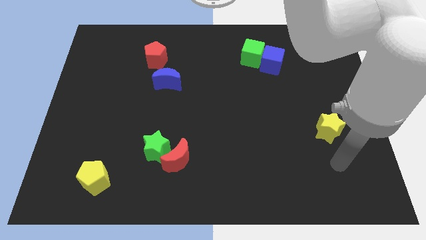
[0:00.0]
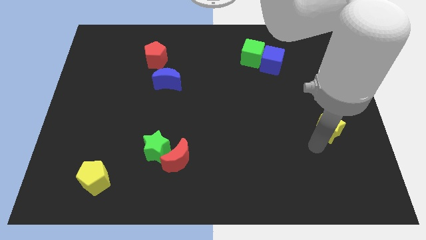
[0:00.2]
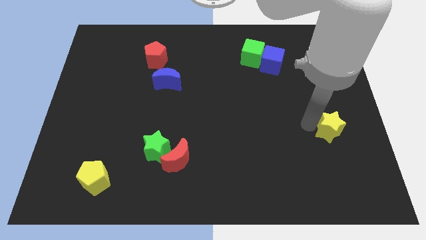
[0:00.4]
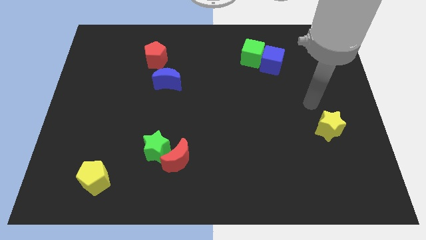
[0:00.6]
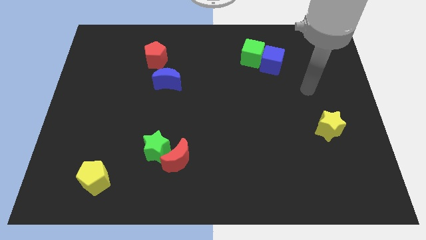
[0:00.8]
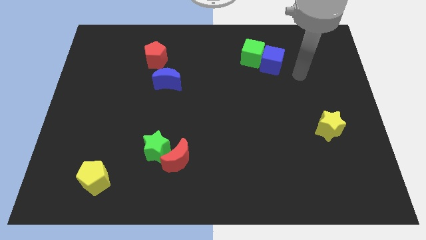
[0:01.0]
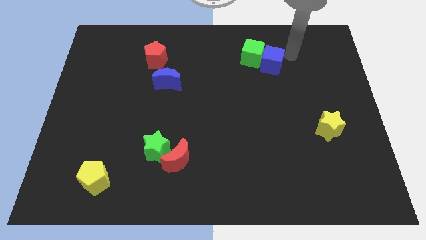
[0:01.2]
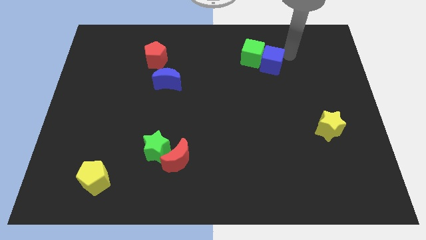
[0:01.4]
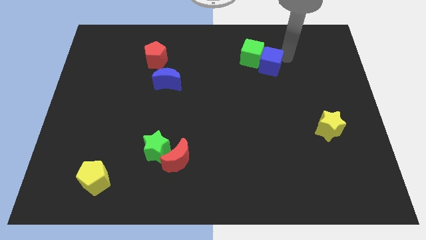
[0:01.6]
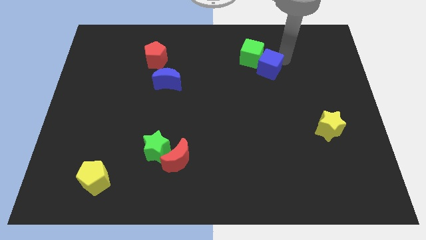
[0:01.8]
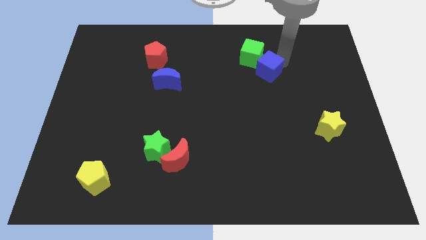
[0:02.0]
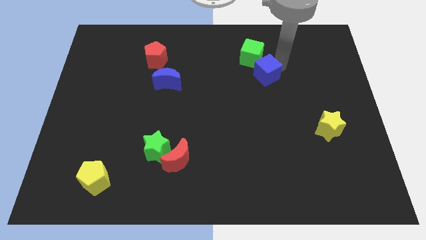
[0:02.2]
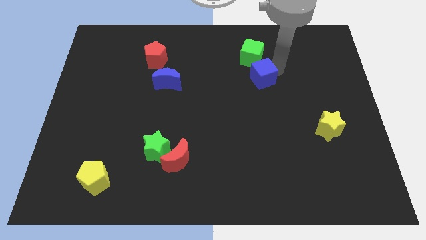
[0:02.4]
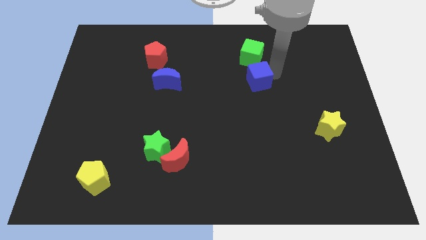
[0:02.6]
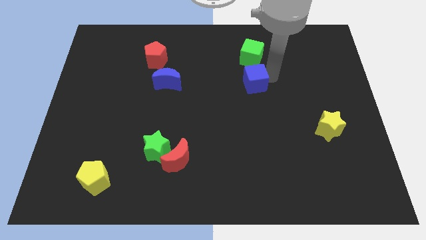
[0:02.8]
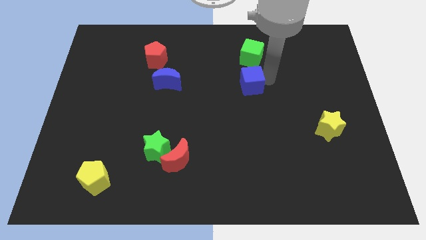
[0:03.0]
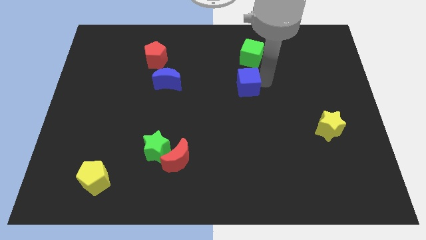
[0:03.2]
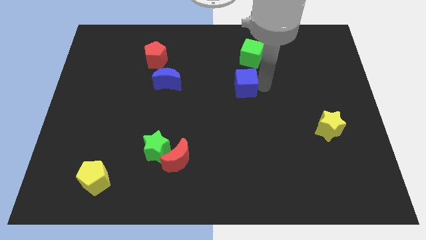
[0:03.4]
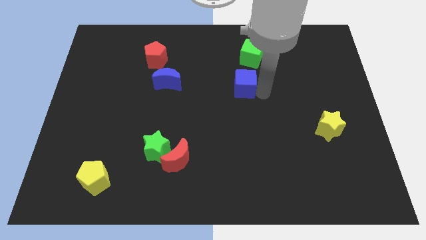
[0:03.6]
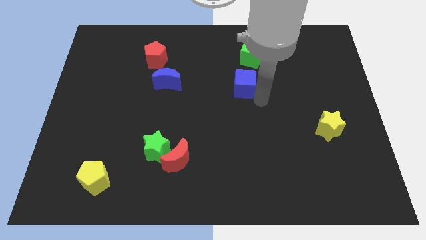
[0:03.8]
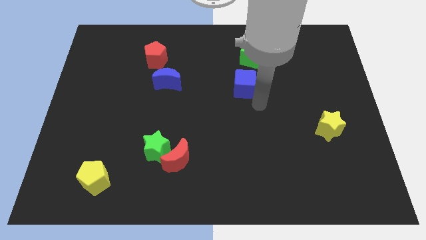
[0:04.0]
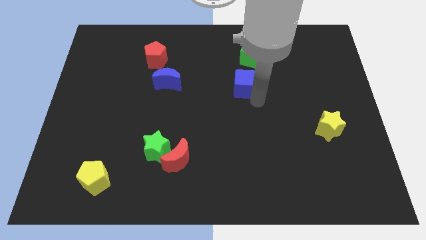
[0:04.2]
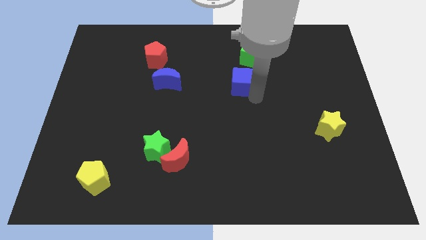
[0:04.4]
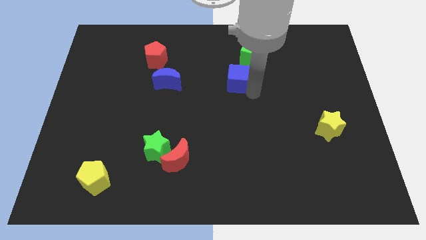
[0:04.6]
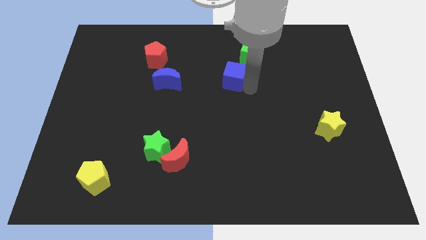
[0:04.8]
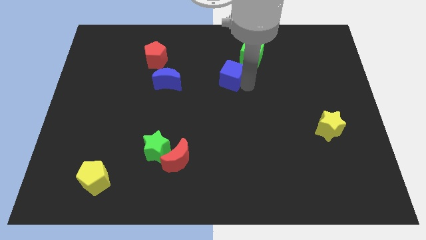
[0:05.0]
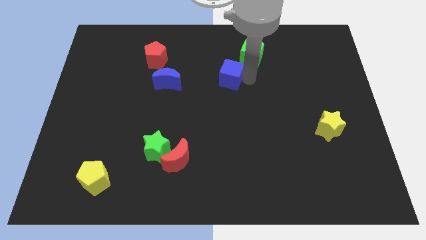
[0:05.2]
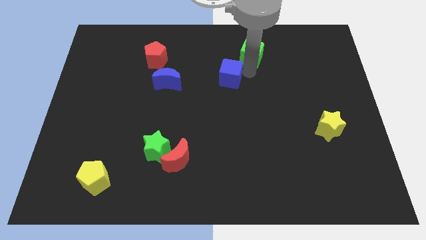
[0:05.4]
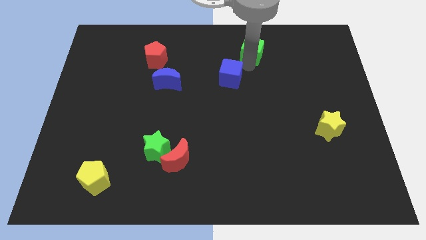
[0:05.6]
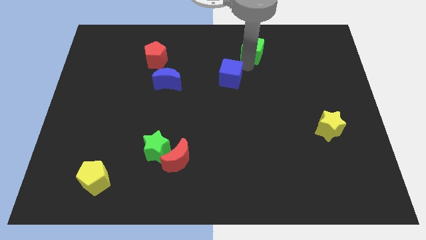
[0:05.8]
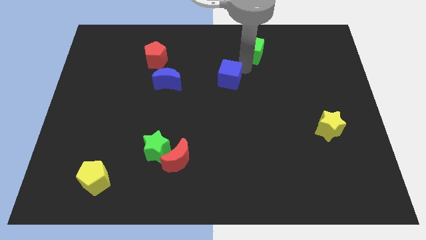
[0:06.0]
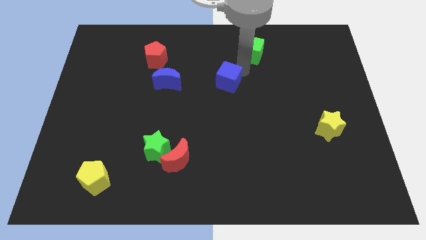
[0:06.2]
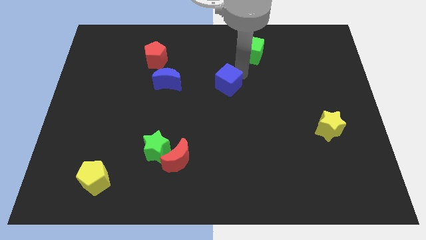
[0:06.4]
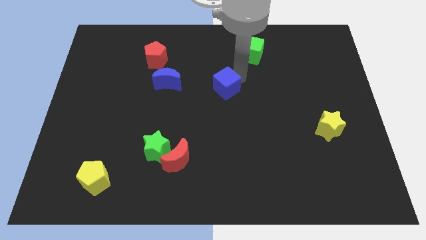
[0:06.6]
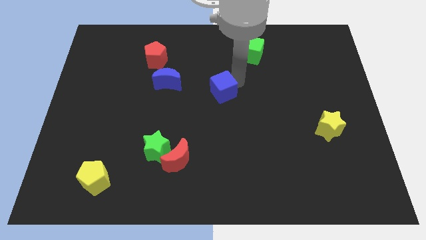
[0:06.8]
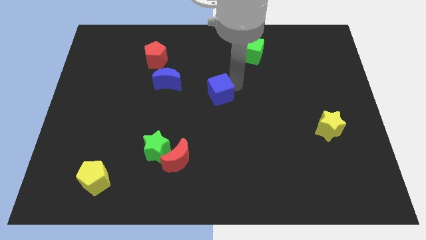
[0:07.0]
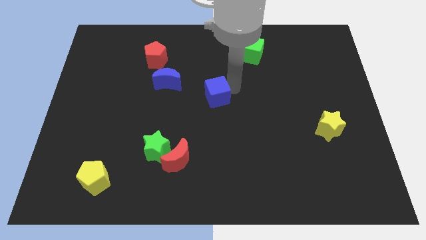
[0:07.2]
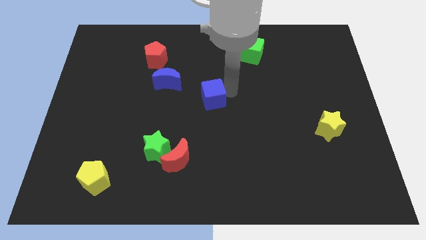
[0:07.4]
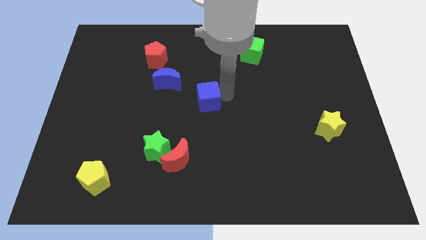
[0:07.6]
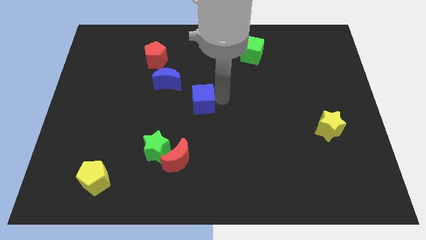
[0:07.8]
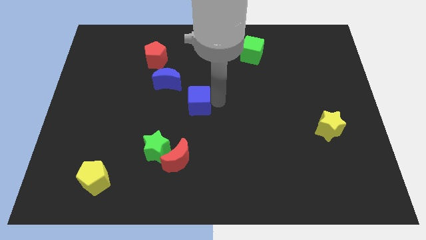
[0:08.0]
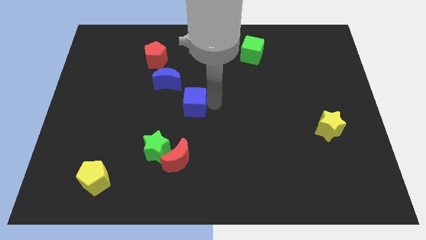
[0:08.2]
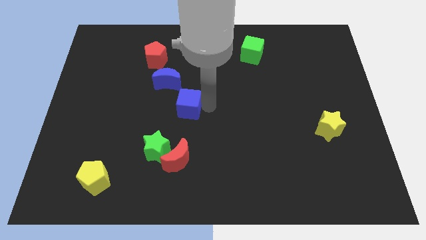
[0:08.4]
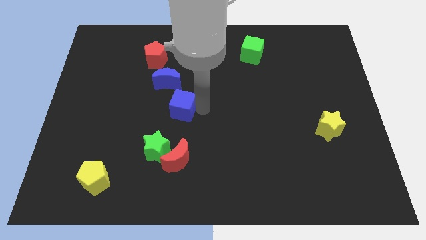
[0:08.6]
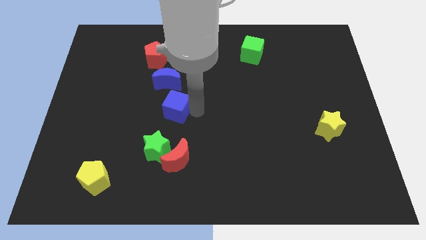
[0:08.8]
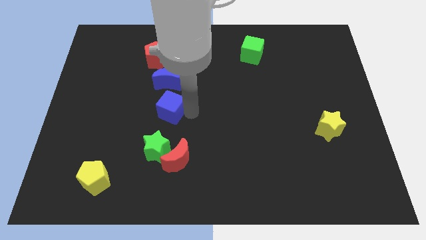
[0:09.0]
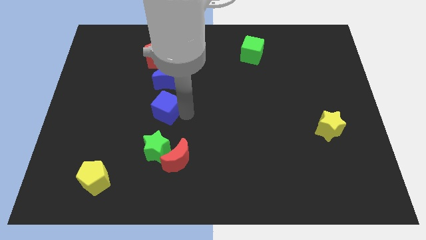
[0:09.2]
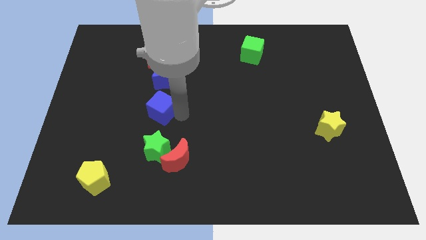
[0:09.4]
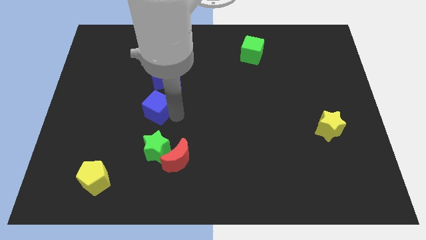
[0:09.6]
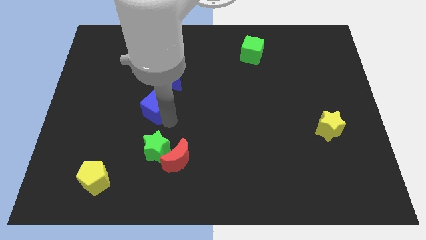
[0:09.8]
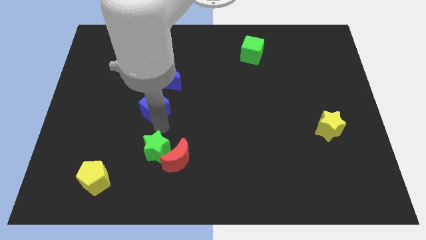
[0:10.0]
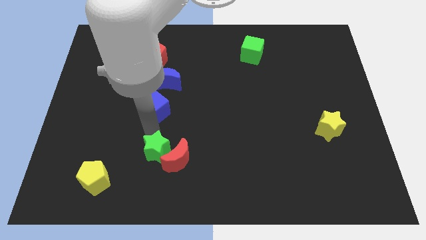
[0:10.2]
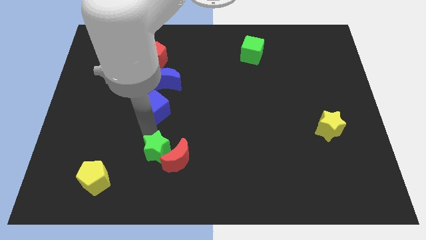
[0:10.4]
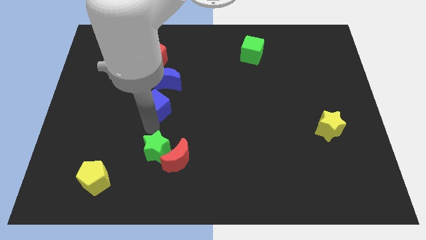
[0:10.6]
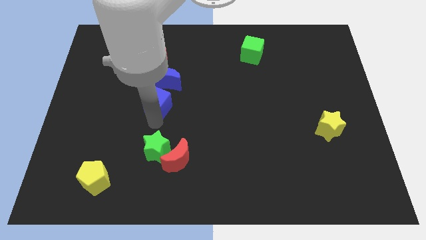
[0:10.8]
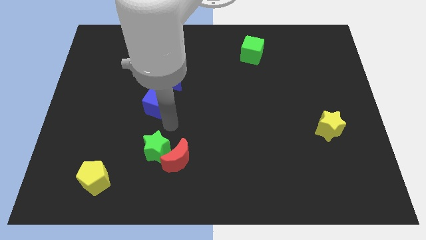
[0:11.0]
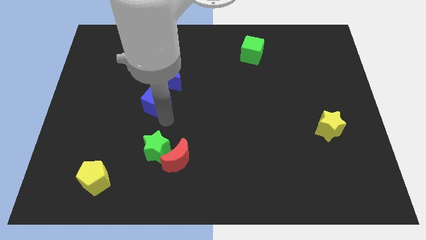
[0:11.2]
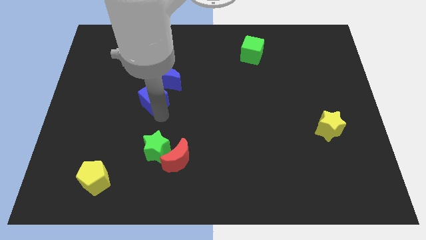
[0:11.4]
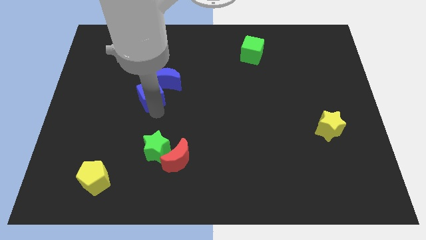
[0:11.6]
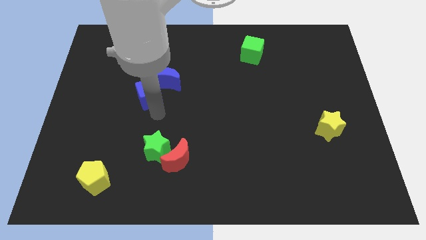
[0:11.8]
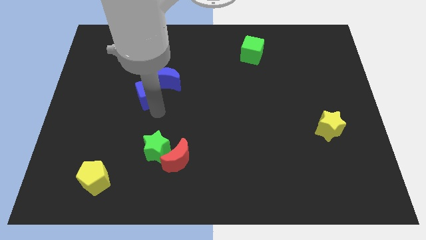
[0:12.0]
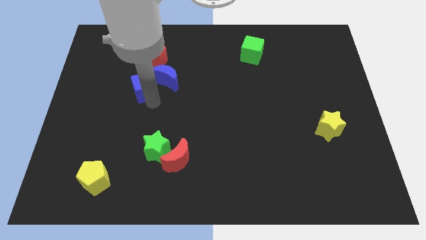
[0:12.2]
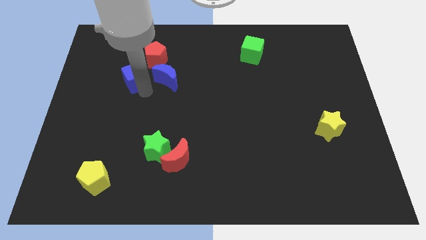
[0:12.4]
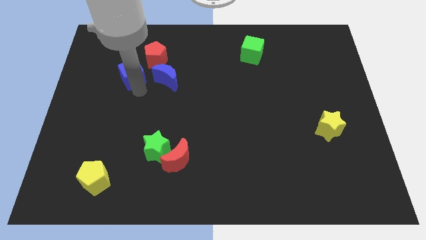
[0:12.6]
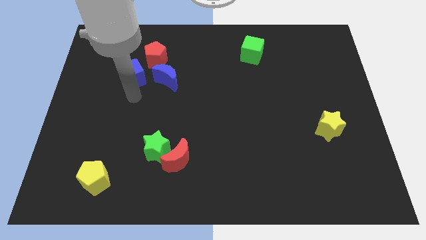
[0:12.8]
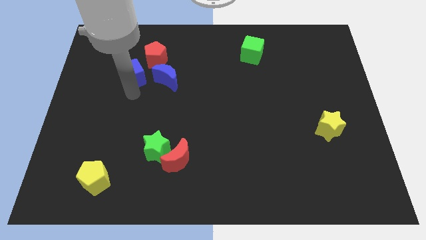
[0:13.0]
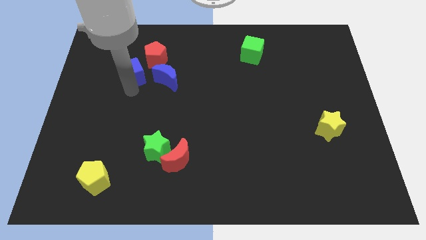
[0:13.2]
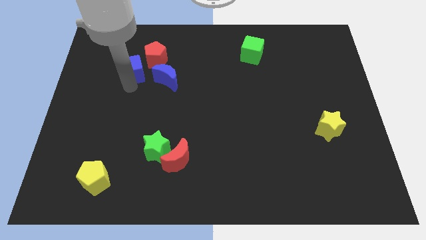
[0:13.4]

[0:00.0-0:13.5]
put the blue cube to the left of the red pentagon
